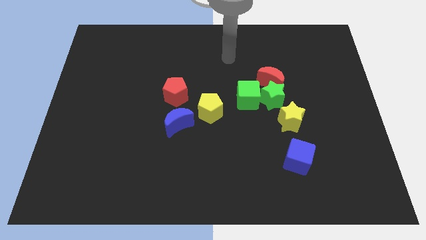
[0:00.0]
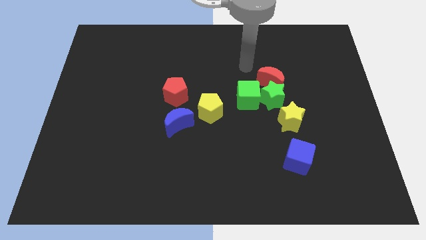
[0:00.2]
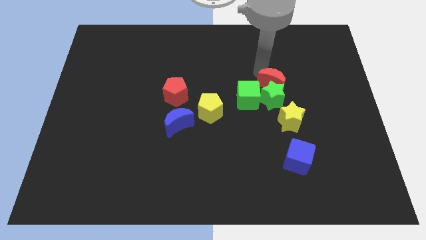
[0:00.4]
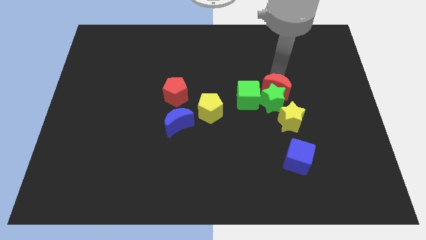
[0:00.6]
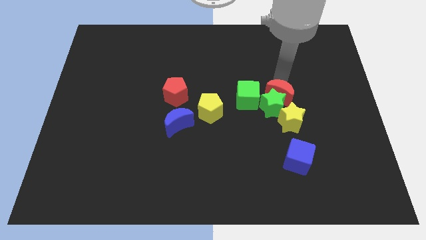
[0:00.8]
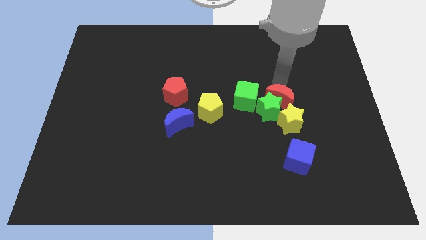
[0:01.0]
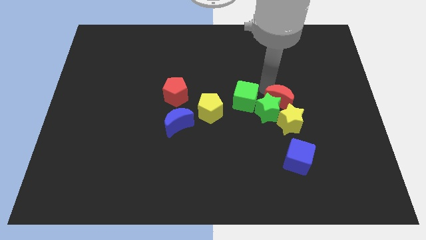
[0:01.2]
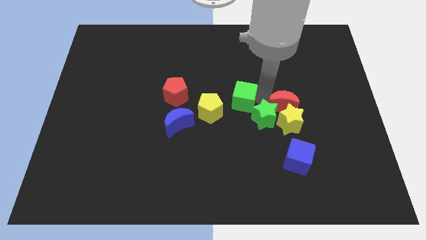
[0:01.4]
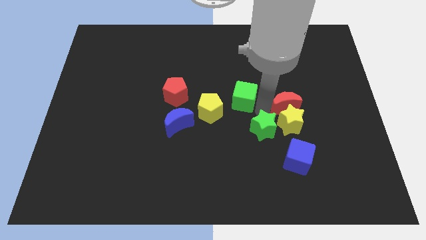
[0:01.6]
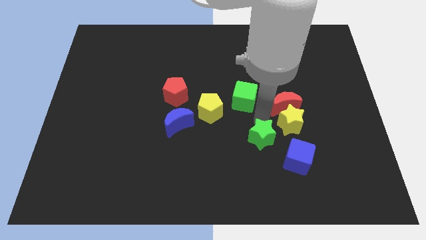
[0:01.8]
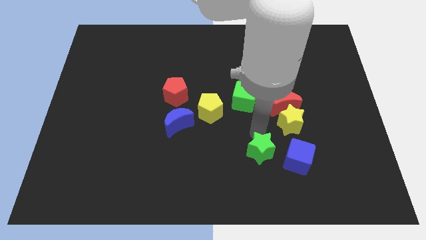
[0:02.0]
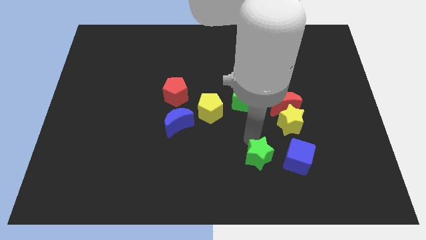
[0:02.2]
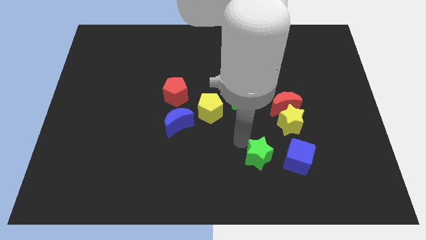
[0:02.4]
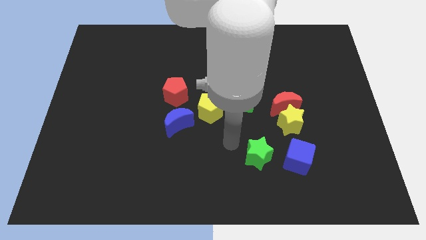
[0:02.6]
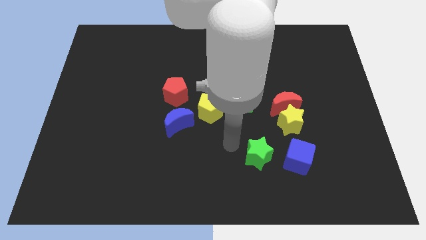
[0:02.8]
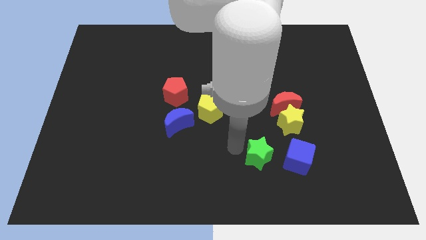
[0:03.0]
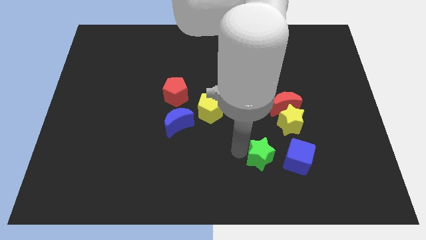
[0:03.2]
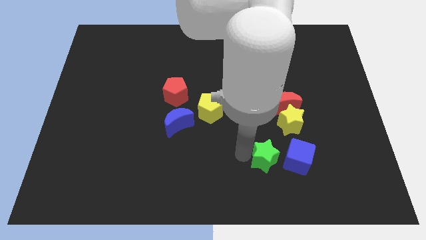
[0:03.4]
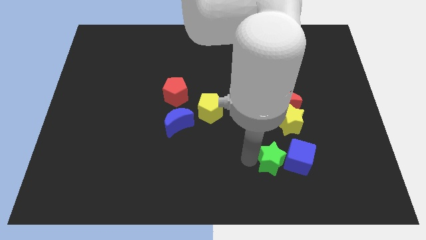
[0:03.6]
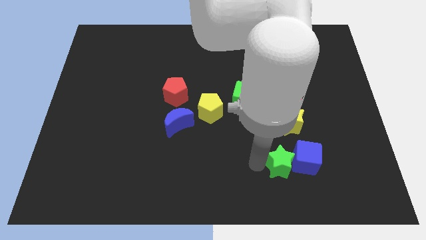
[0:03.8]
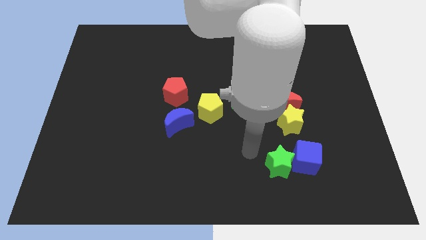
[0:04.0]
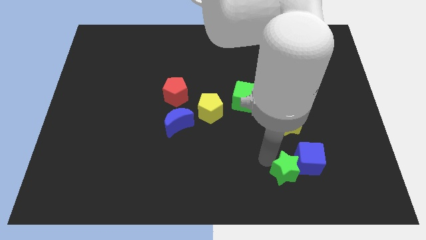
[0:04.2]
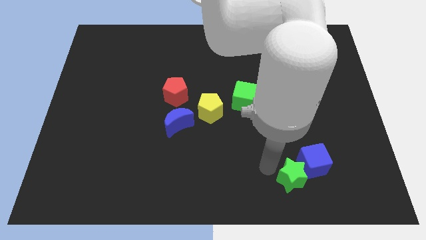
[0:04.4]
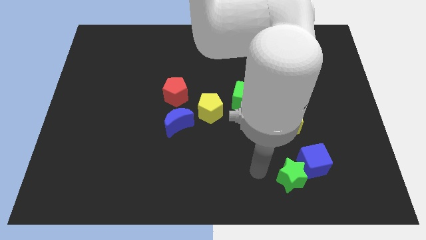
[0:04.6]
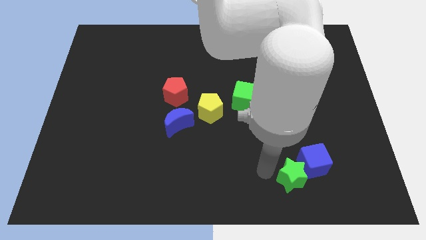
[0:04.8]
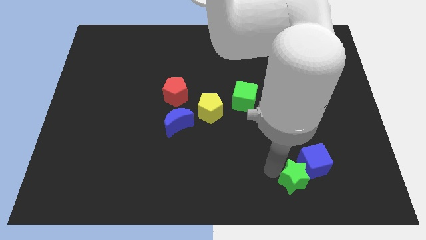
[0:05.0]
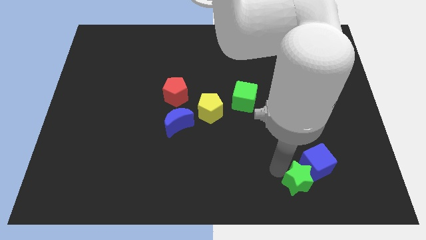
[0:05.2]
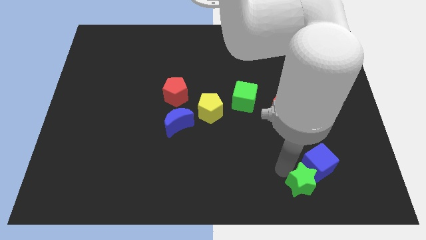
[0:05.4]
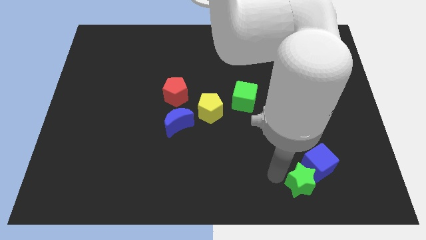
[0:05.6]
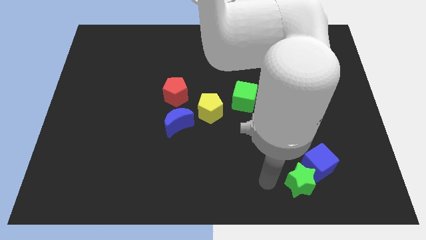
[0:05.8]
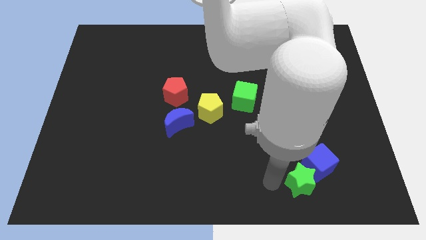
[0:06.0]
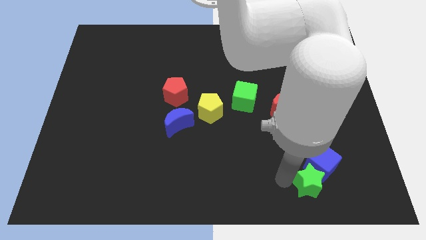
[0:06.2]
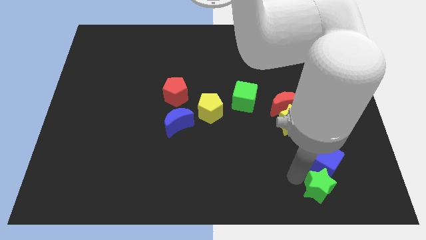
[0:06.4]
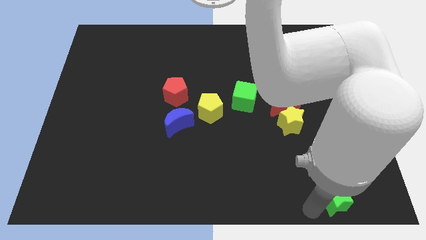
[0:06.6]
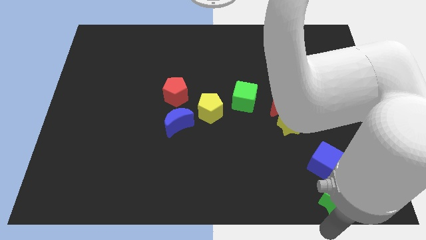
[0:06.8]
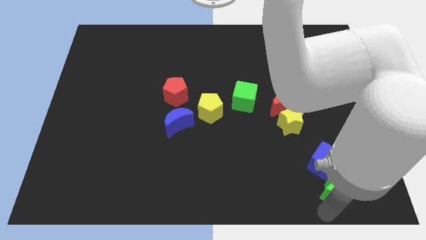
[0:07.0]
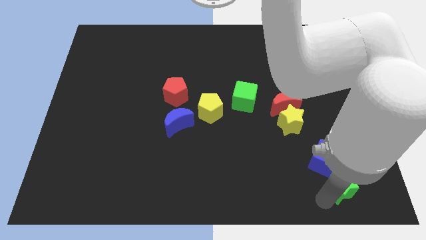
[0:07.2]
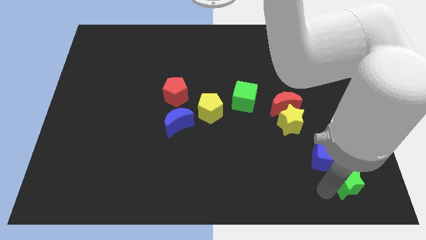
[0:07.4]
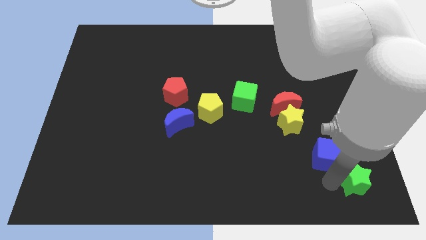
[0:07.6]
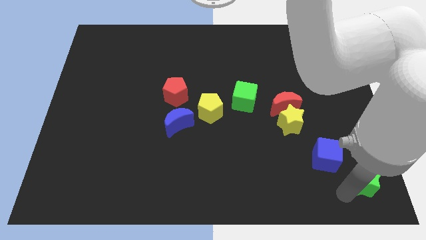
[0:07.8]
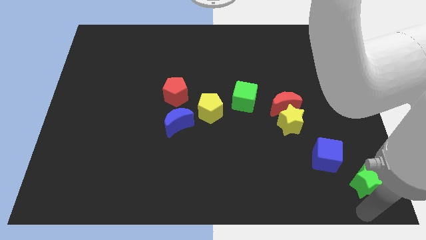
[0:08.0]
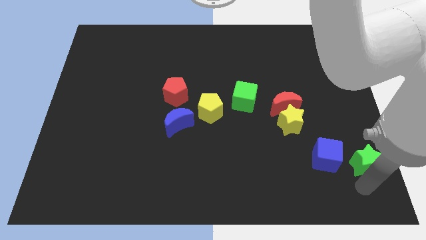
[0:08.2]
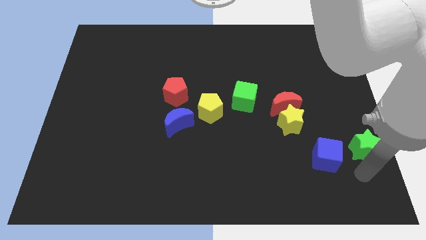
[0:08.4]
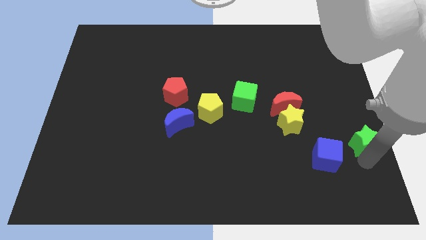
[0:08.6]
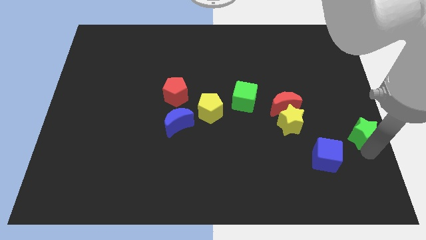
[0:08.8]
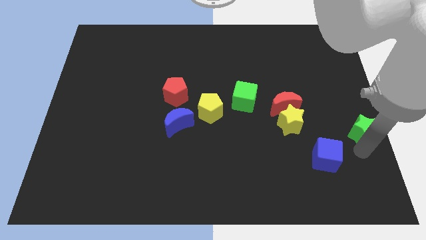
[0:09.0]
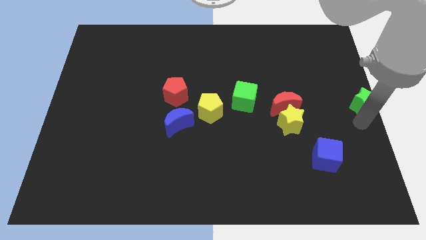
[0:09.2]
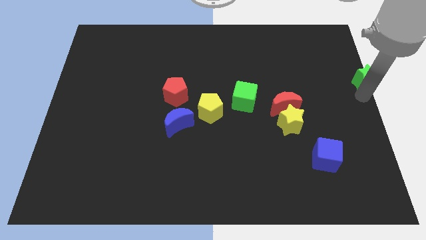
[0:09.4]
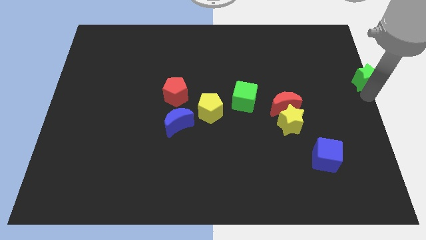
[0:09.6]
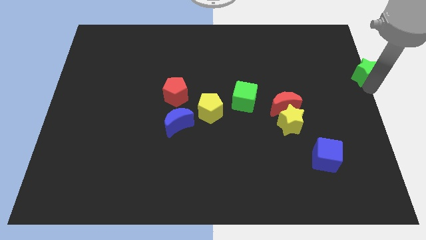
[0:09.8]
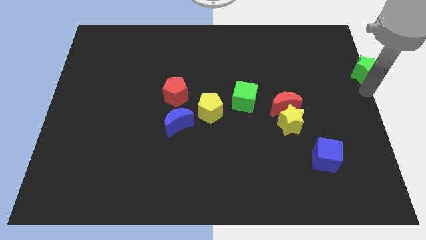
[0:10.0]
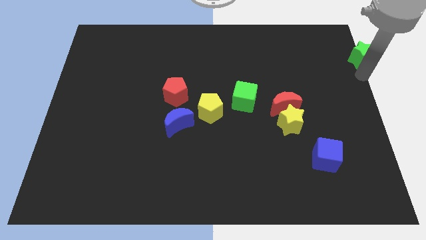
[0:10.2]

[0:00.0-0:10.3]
slide the green star to the top right of the board

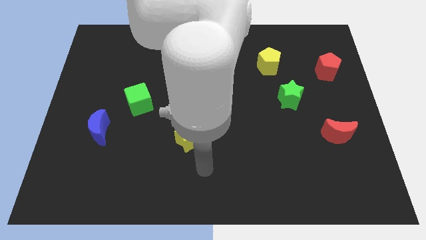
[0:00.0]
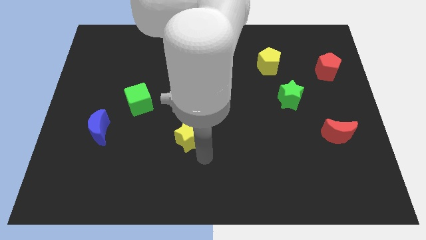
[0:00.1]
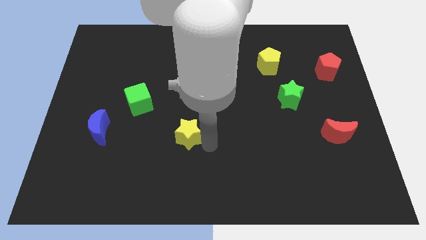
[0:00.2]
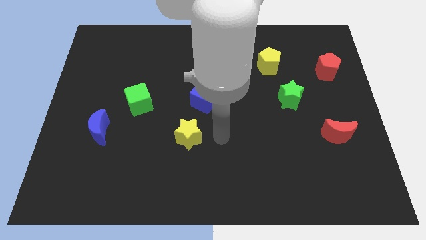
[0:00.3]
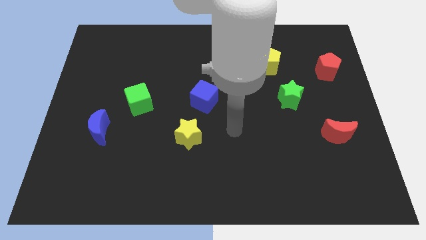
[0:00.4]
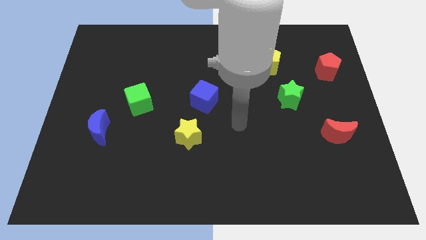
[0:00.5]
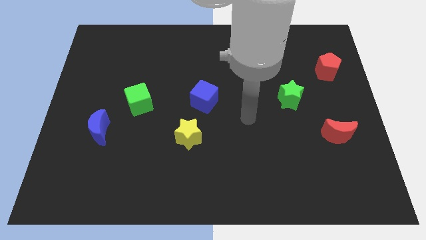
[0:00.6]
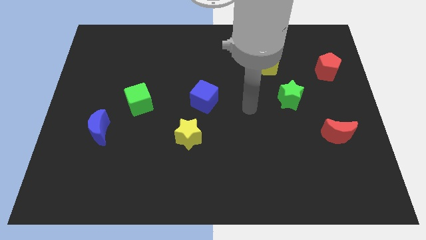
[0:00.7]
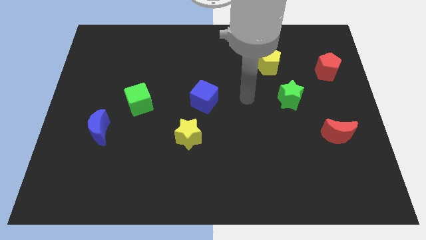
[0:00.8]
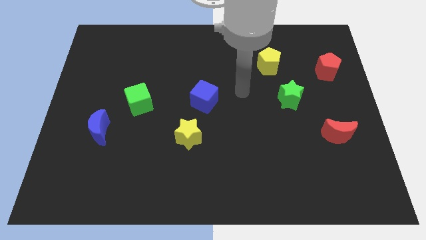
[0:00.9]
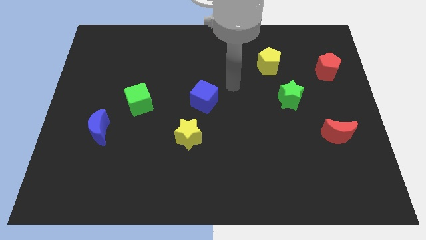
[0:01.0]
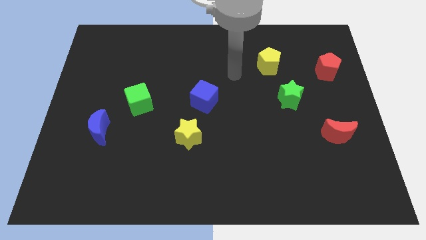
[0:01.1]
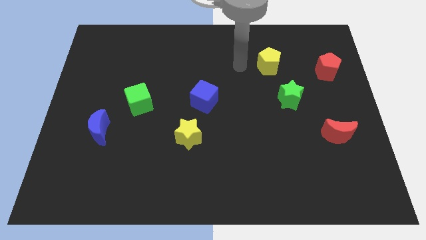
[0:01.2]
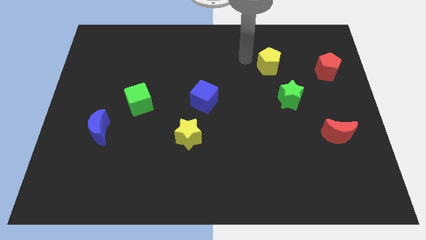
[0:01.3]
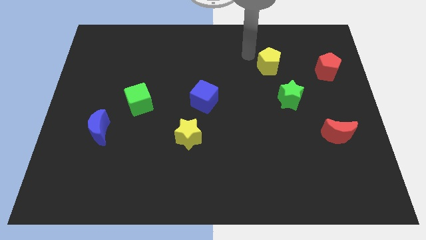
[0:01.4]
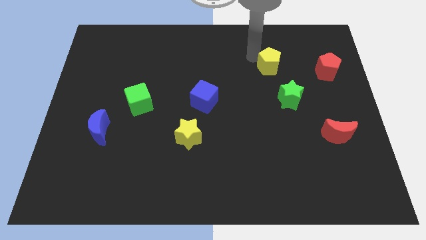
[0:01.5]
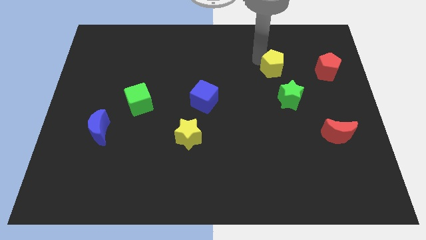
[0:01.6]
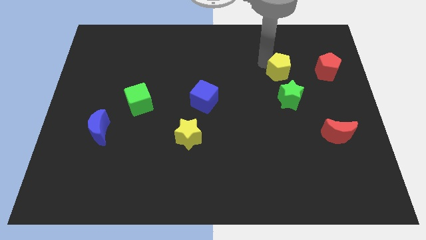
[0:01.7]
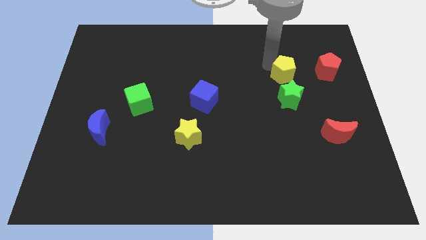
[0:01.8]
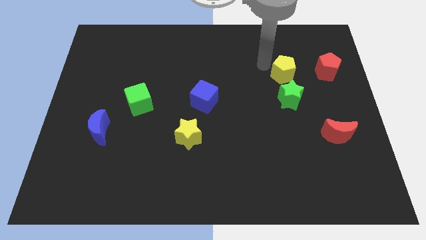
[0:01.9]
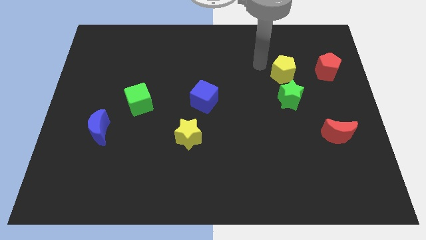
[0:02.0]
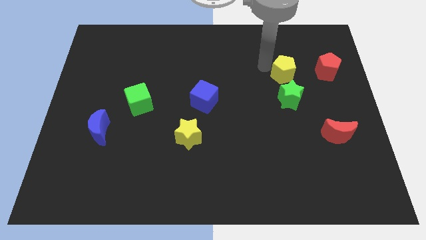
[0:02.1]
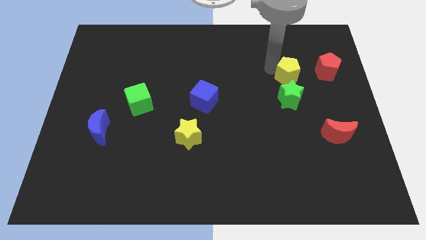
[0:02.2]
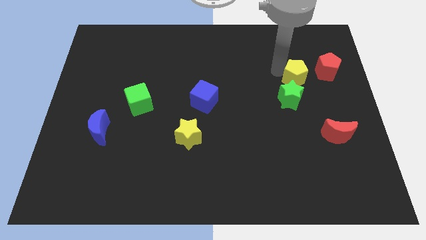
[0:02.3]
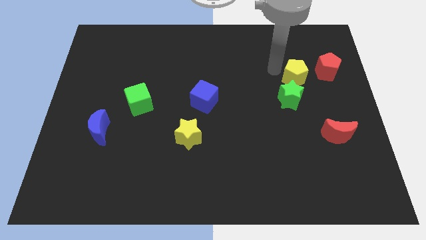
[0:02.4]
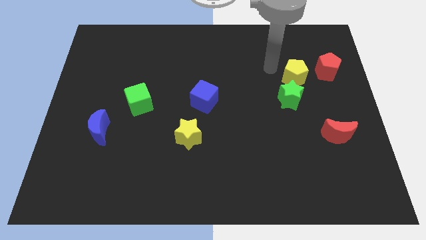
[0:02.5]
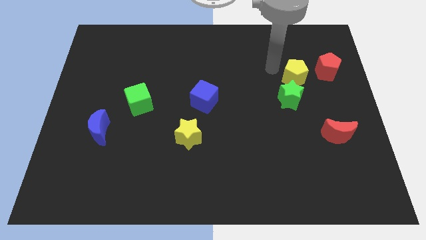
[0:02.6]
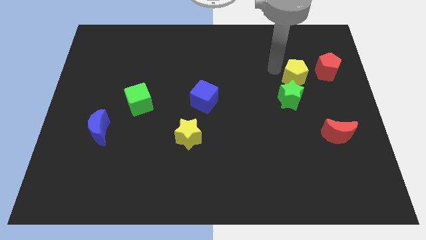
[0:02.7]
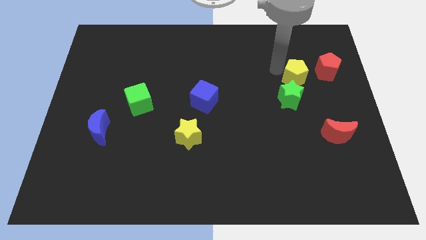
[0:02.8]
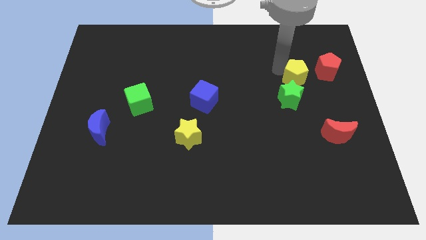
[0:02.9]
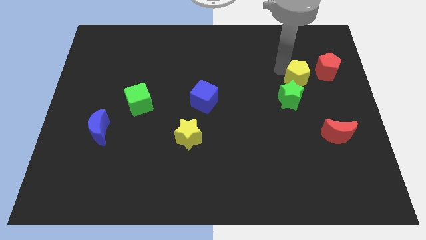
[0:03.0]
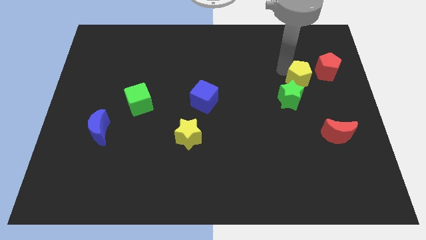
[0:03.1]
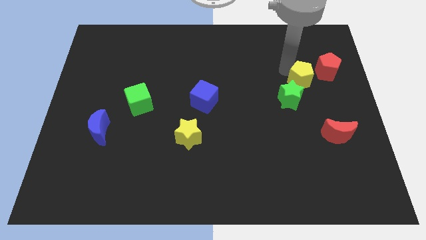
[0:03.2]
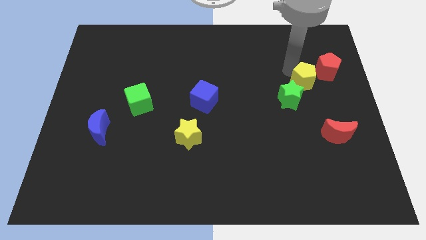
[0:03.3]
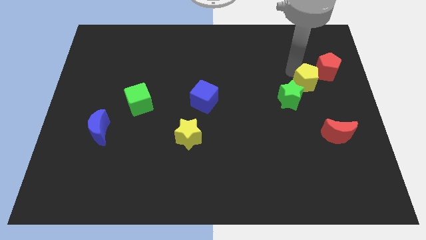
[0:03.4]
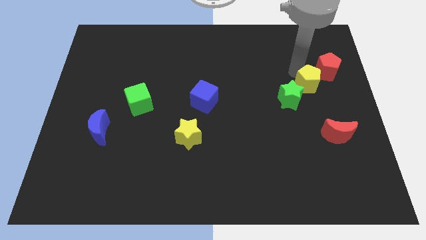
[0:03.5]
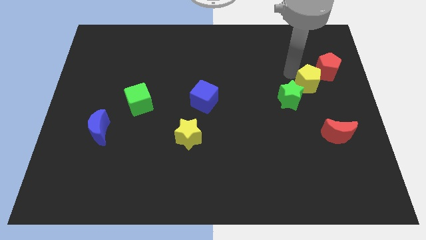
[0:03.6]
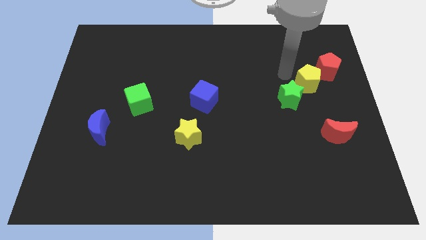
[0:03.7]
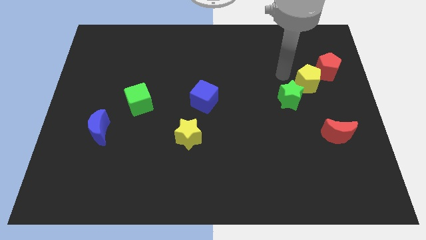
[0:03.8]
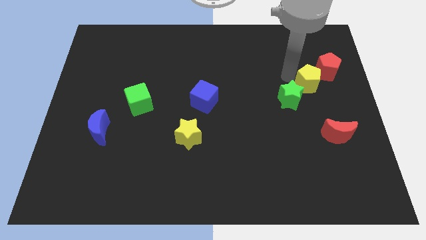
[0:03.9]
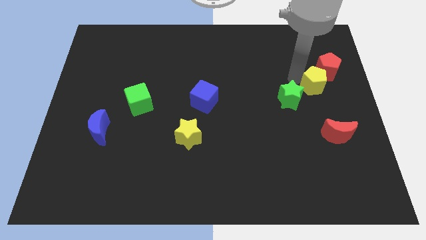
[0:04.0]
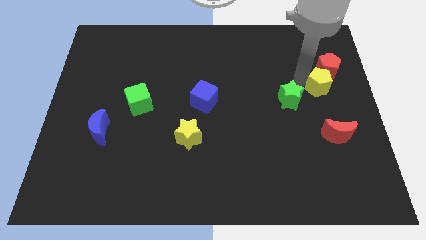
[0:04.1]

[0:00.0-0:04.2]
move the yellow pentagon to the center right
